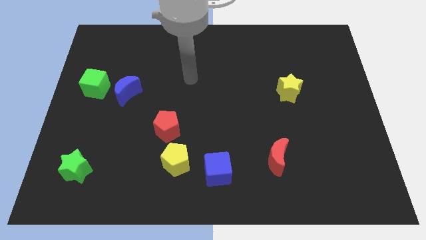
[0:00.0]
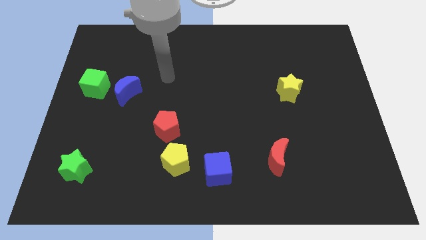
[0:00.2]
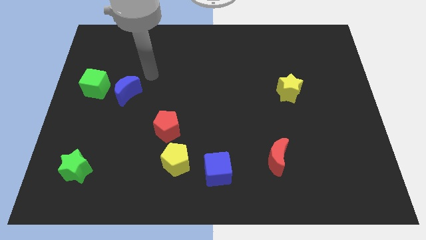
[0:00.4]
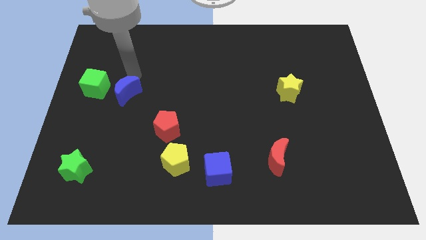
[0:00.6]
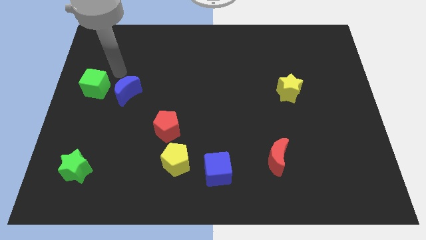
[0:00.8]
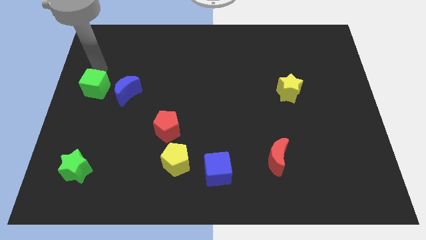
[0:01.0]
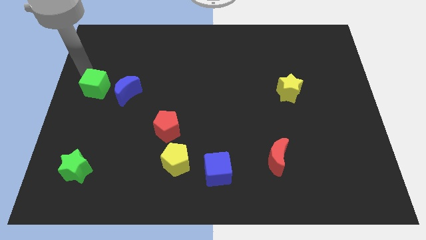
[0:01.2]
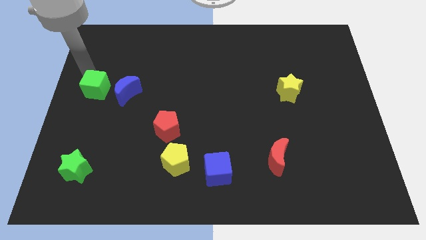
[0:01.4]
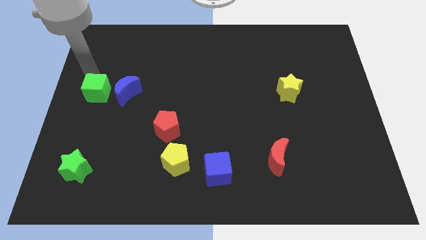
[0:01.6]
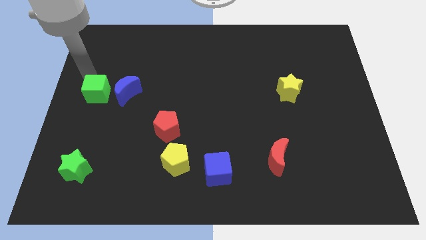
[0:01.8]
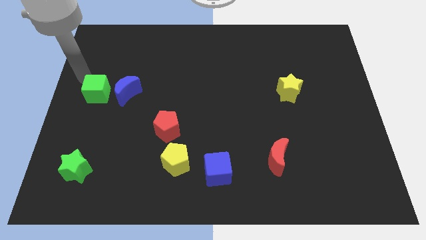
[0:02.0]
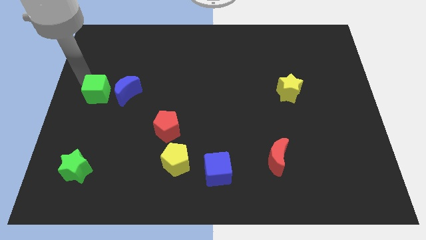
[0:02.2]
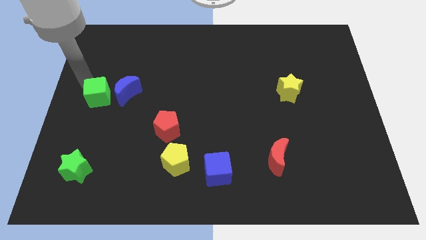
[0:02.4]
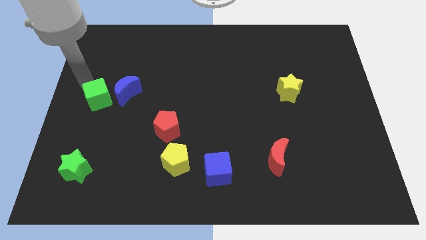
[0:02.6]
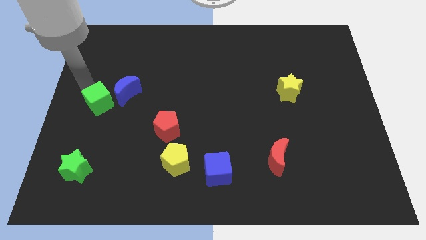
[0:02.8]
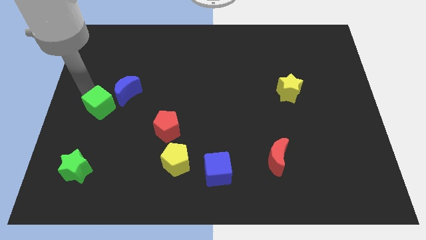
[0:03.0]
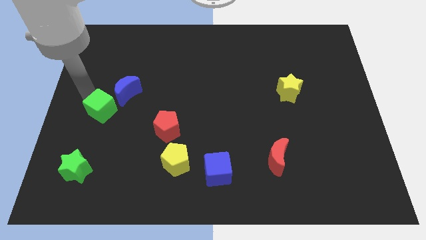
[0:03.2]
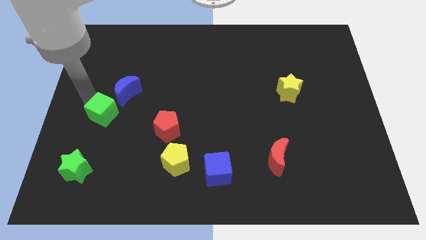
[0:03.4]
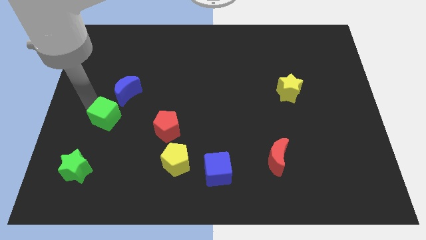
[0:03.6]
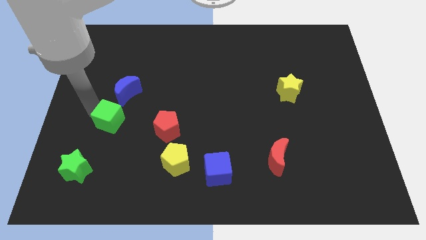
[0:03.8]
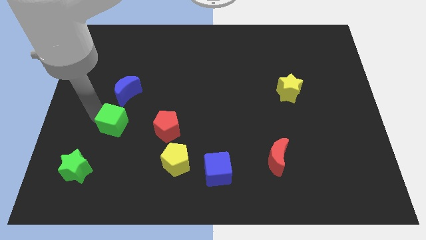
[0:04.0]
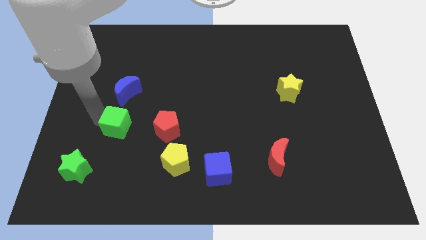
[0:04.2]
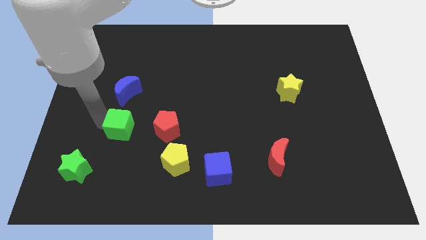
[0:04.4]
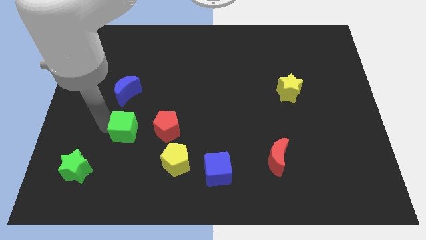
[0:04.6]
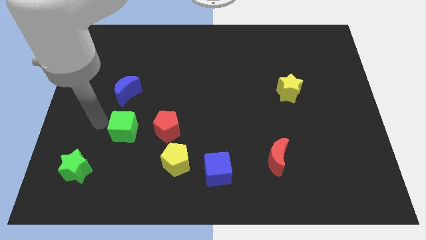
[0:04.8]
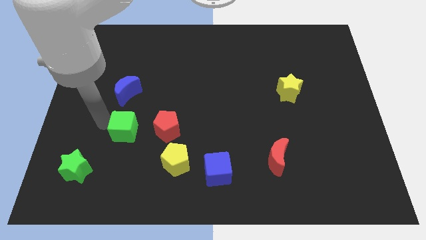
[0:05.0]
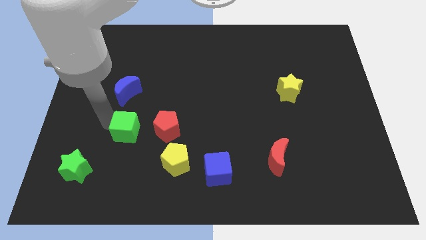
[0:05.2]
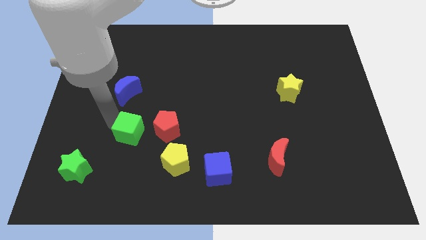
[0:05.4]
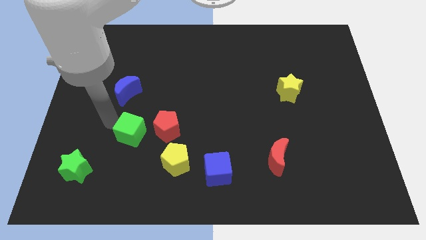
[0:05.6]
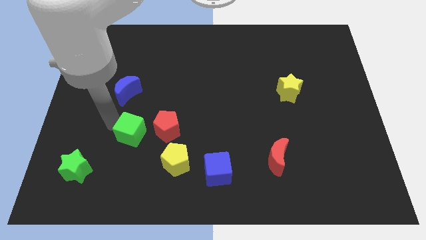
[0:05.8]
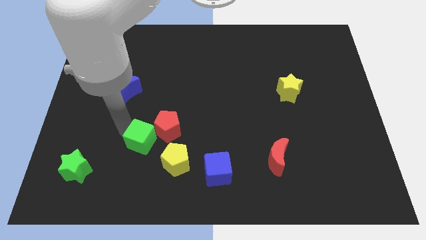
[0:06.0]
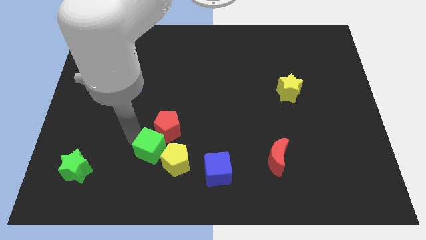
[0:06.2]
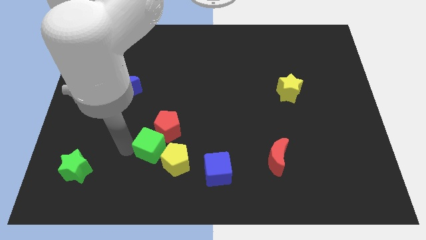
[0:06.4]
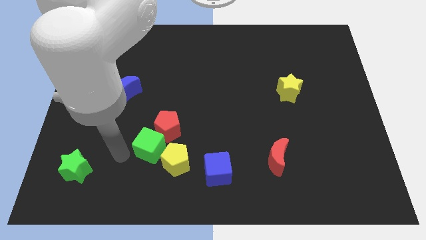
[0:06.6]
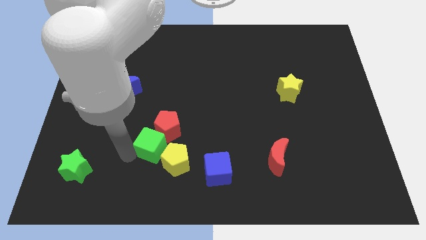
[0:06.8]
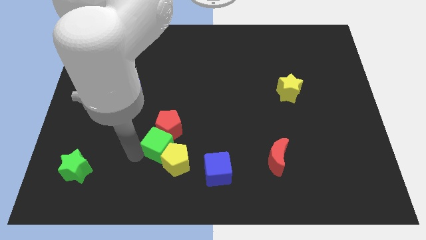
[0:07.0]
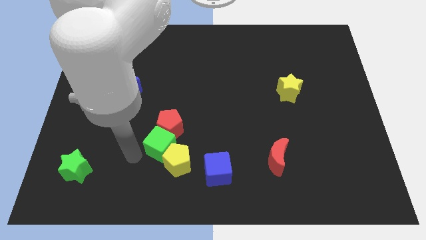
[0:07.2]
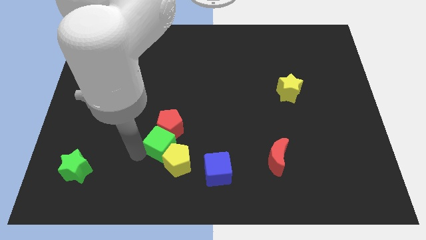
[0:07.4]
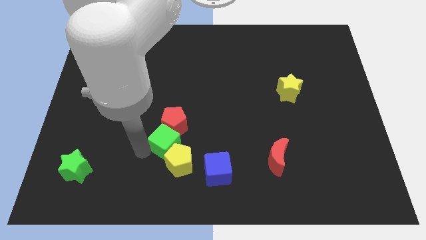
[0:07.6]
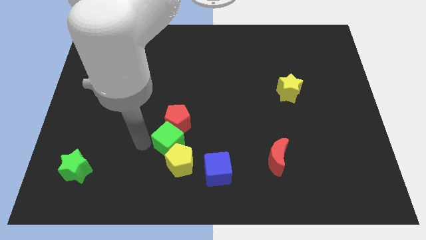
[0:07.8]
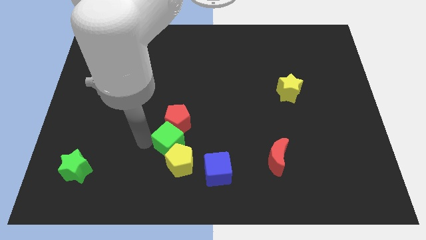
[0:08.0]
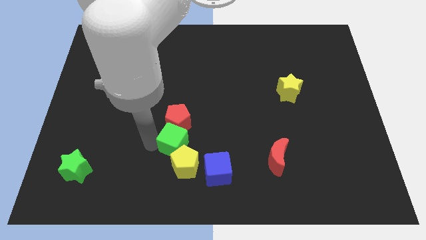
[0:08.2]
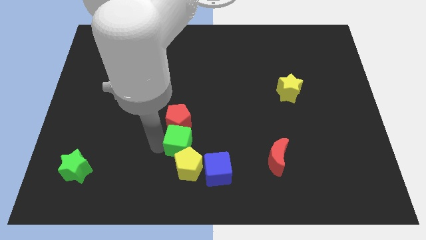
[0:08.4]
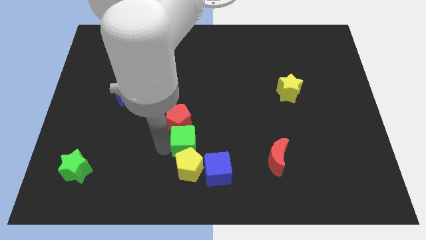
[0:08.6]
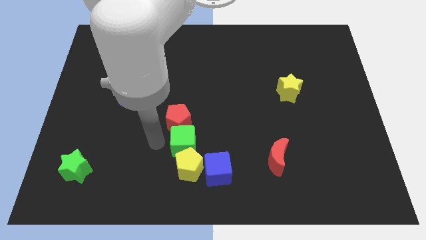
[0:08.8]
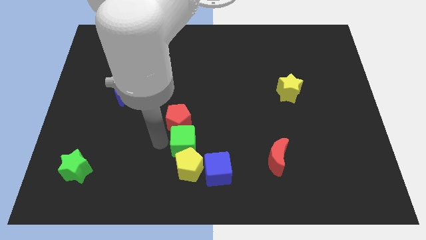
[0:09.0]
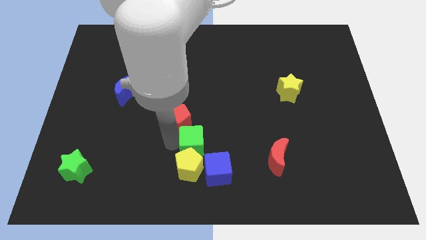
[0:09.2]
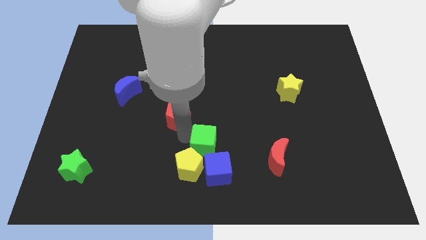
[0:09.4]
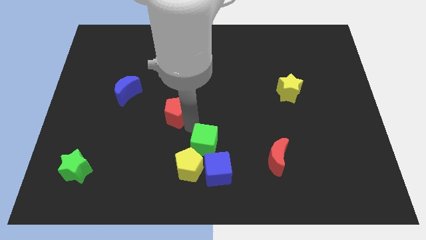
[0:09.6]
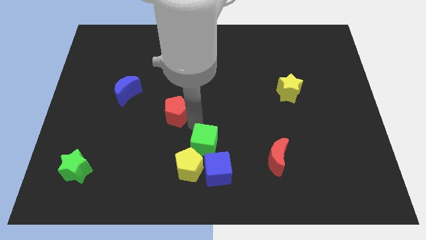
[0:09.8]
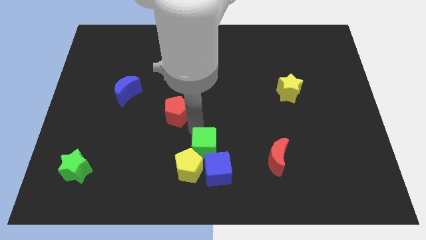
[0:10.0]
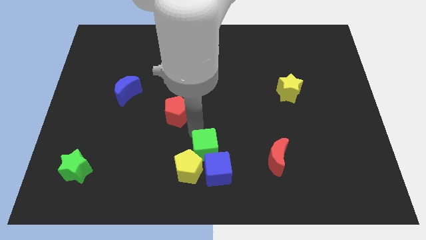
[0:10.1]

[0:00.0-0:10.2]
put the green cube towards the blue cube

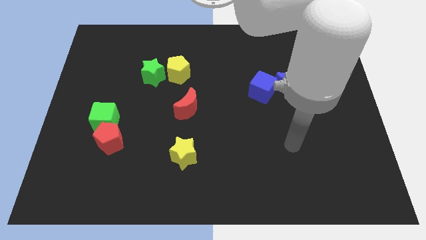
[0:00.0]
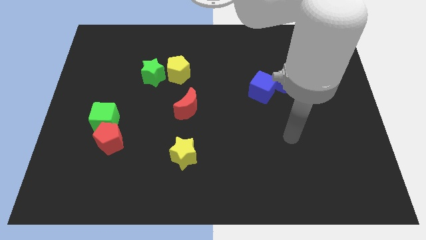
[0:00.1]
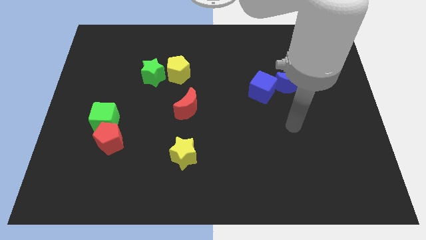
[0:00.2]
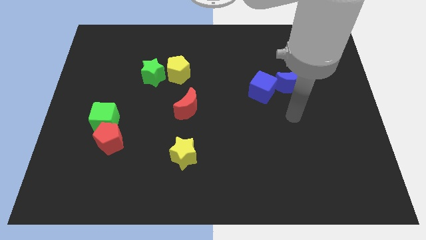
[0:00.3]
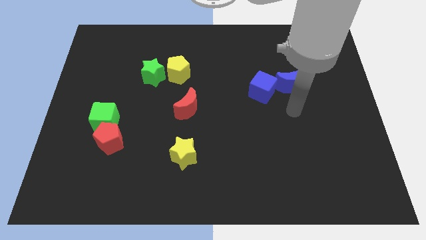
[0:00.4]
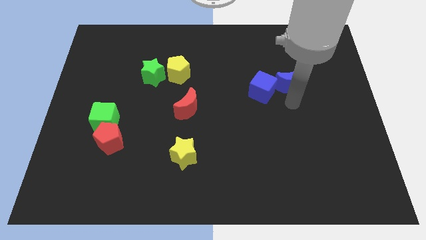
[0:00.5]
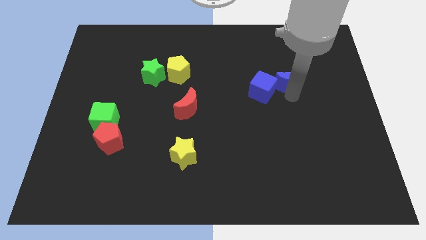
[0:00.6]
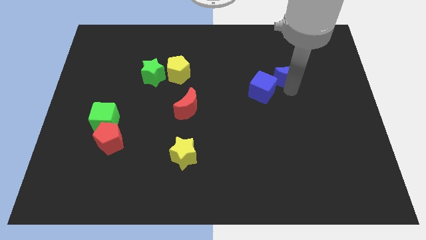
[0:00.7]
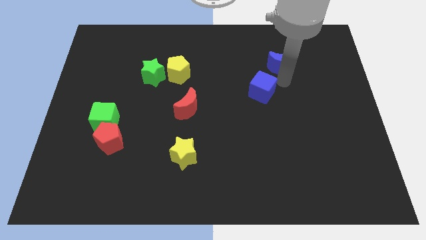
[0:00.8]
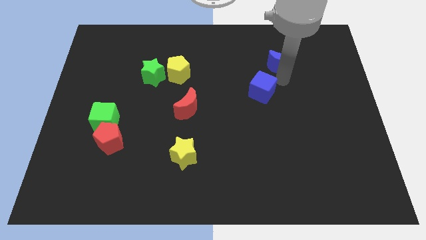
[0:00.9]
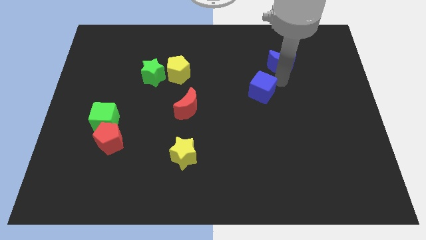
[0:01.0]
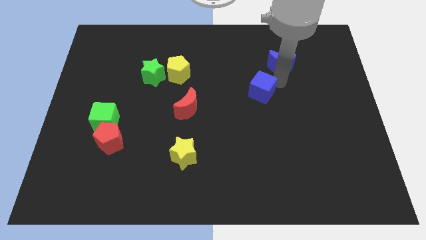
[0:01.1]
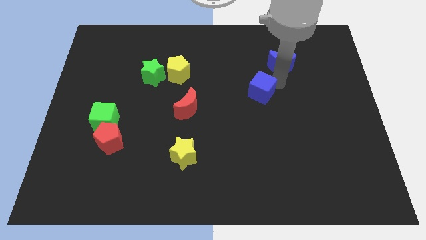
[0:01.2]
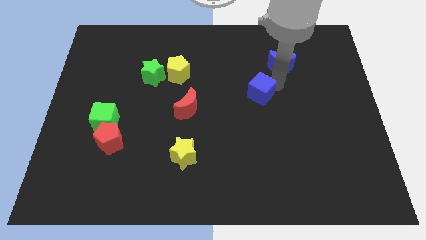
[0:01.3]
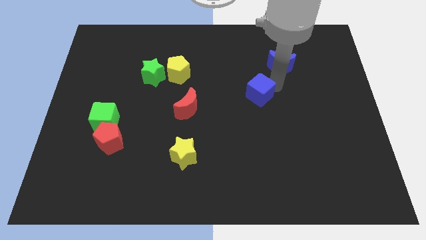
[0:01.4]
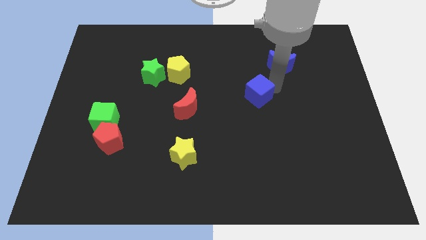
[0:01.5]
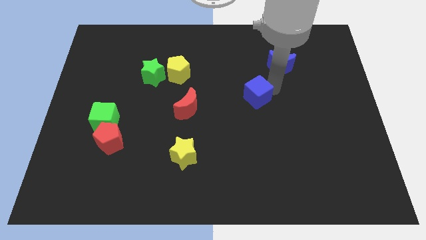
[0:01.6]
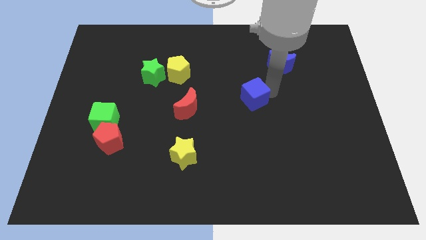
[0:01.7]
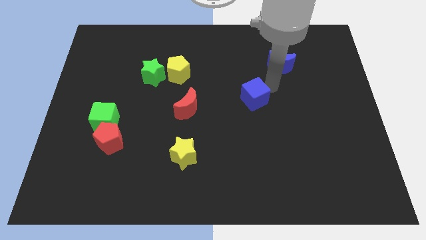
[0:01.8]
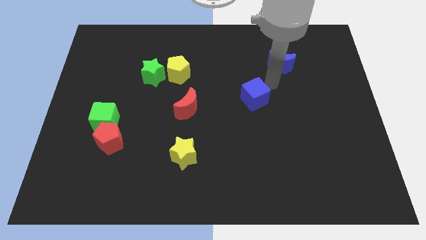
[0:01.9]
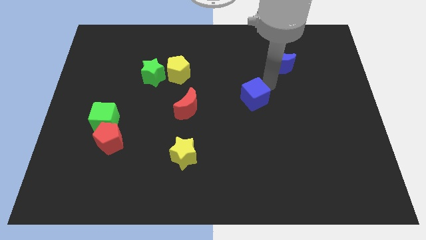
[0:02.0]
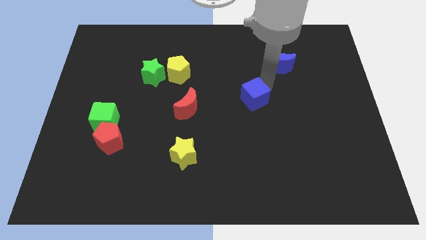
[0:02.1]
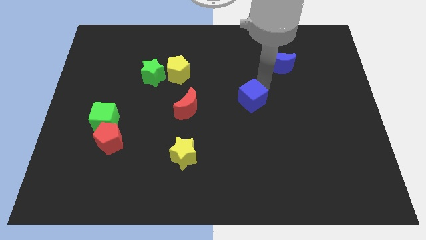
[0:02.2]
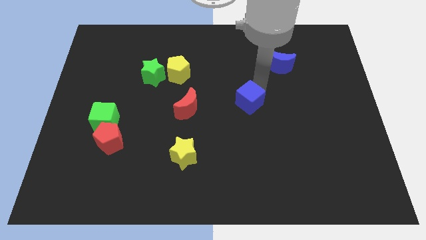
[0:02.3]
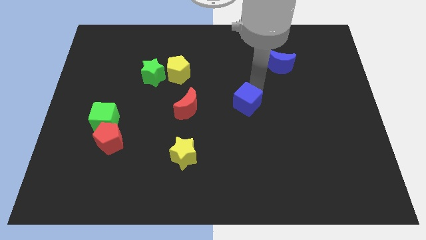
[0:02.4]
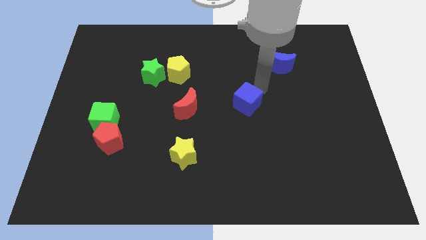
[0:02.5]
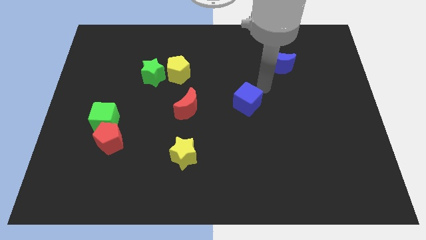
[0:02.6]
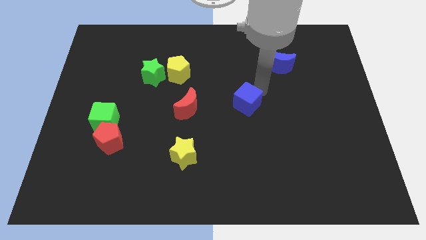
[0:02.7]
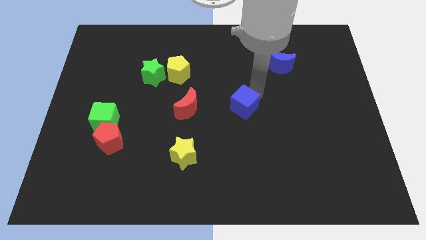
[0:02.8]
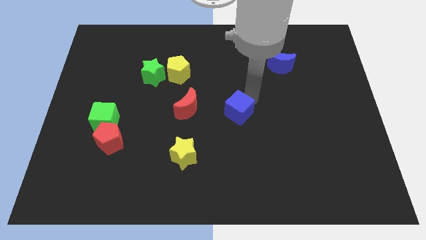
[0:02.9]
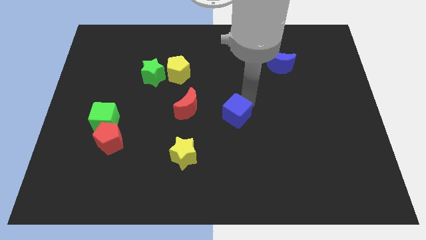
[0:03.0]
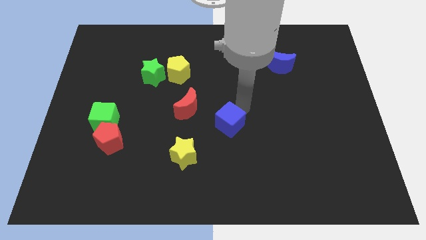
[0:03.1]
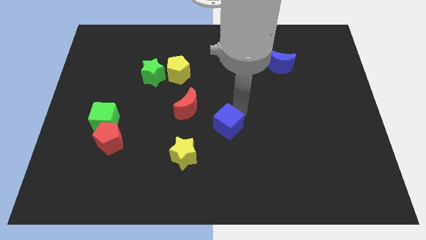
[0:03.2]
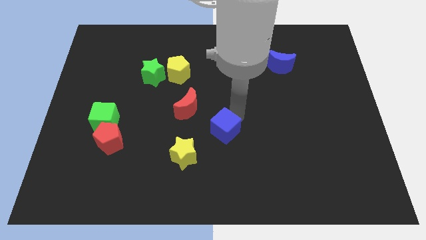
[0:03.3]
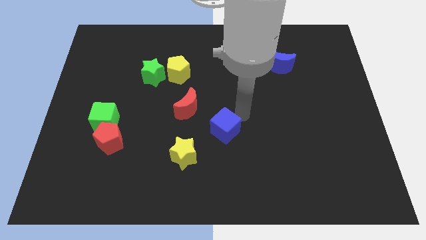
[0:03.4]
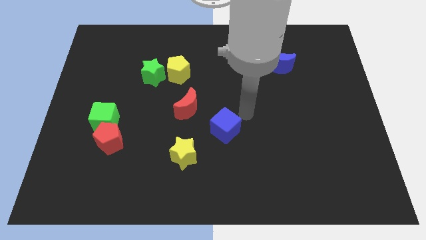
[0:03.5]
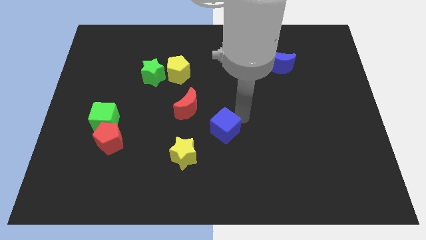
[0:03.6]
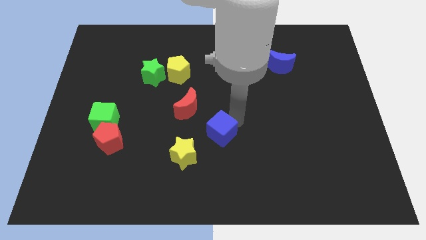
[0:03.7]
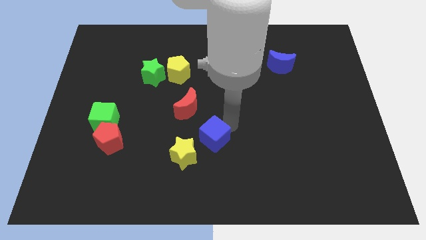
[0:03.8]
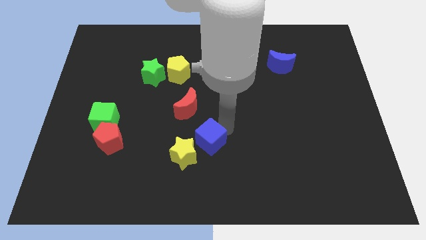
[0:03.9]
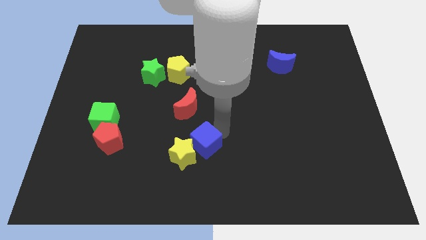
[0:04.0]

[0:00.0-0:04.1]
slide the blue cube close to the yellow star
